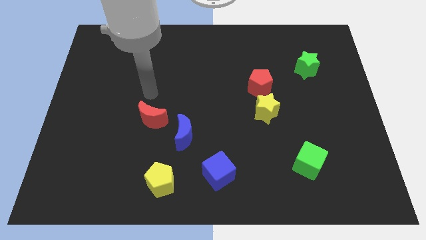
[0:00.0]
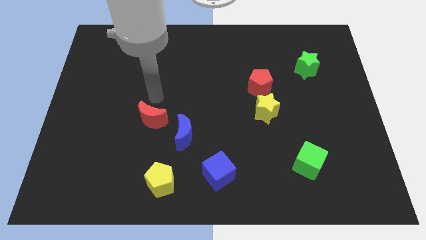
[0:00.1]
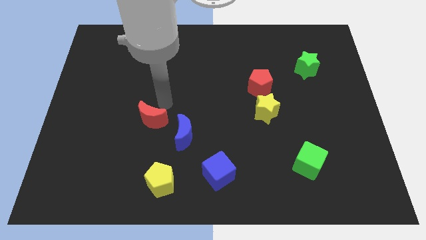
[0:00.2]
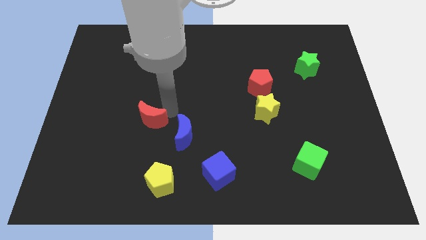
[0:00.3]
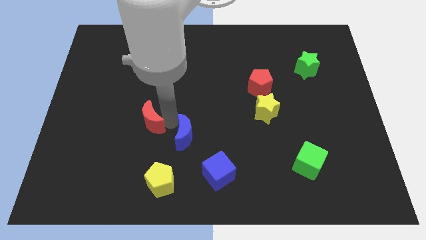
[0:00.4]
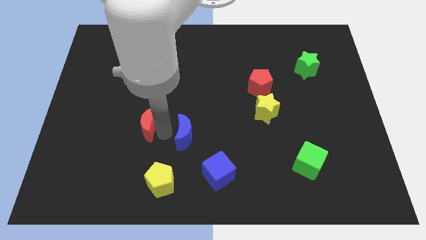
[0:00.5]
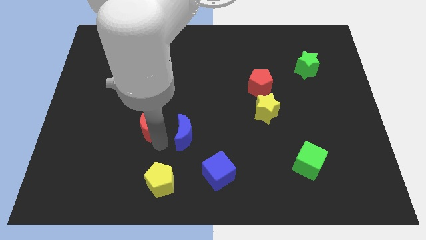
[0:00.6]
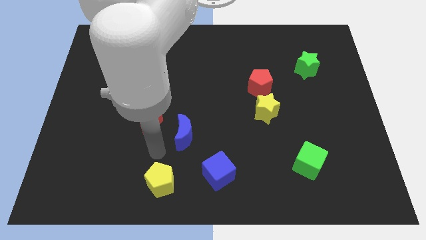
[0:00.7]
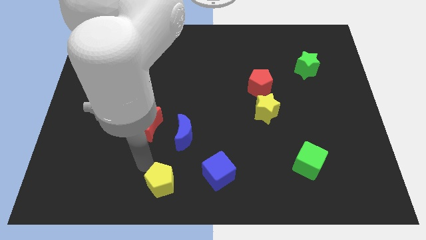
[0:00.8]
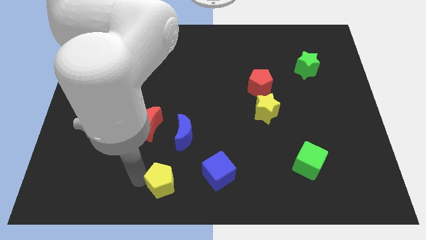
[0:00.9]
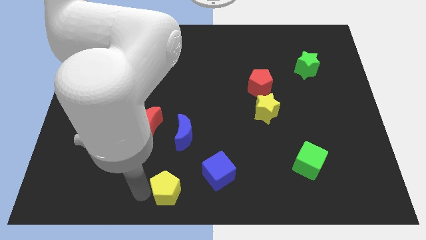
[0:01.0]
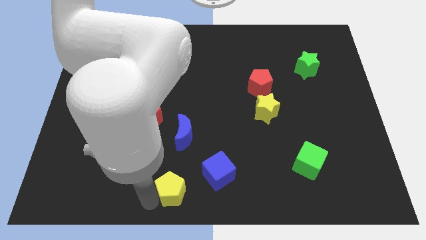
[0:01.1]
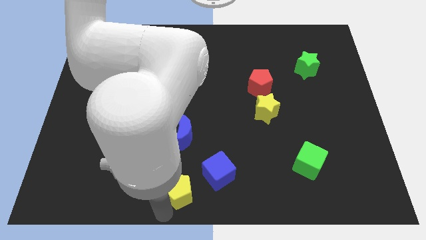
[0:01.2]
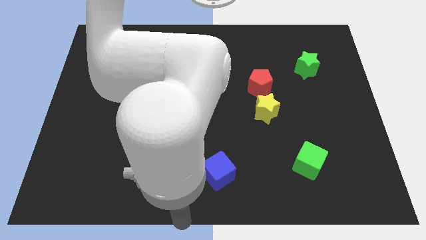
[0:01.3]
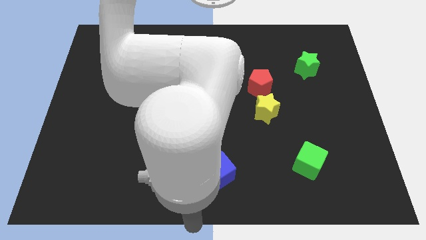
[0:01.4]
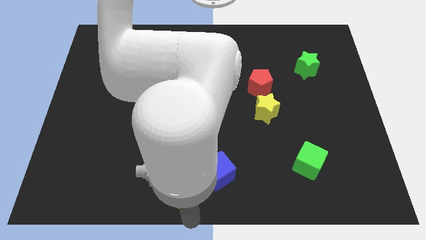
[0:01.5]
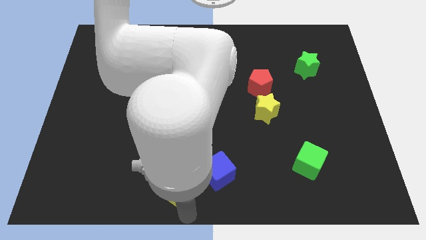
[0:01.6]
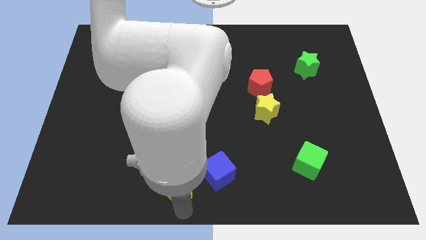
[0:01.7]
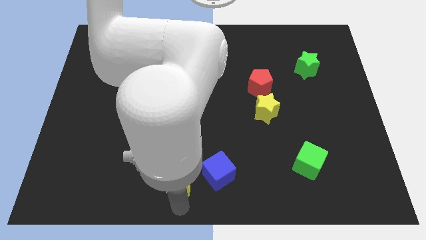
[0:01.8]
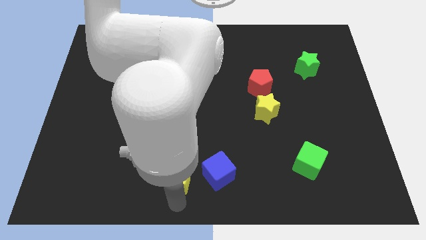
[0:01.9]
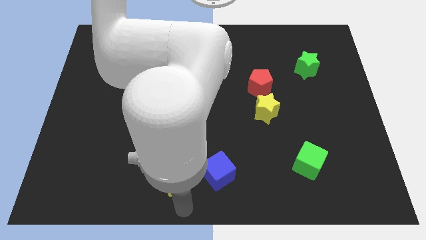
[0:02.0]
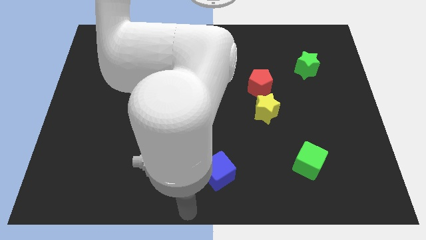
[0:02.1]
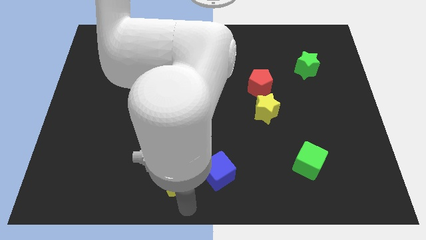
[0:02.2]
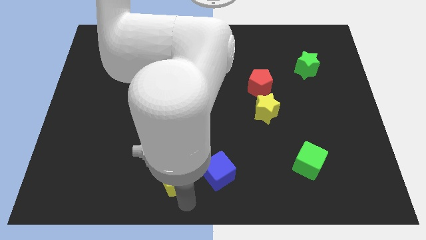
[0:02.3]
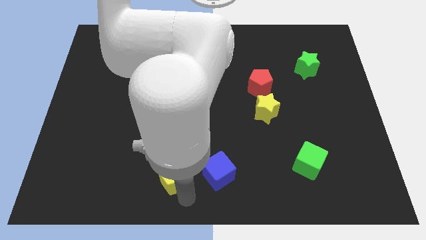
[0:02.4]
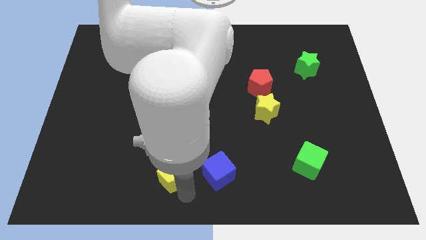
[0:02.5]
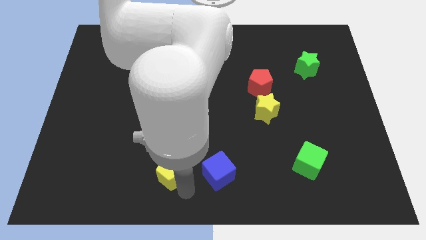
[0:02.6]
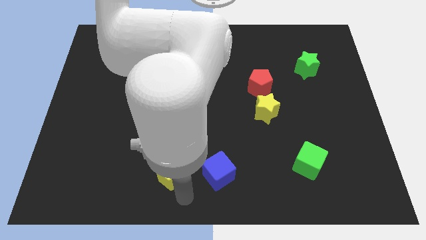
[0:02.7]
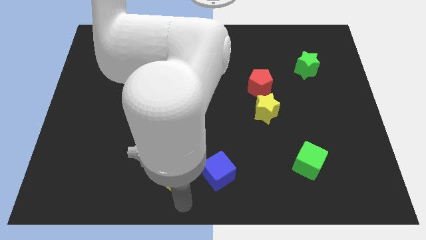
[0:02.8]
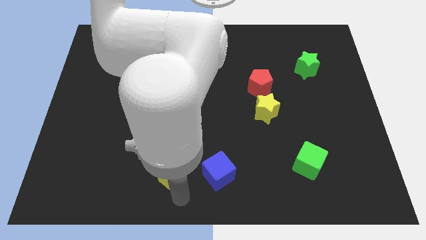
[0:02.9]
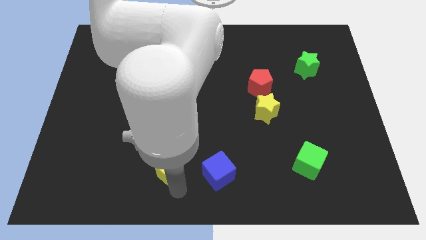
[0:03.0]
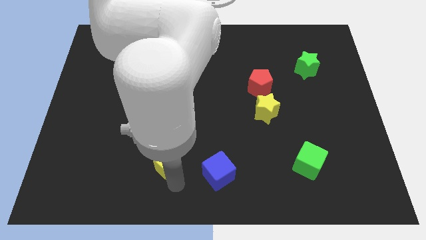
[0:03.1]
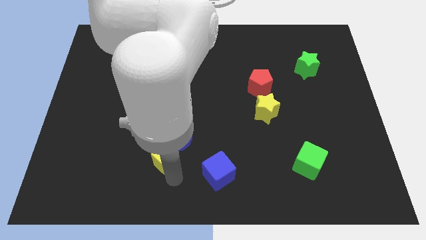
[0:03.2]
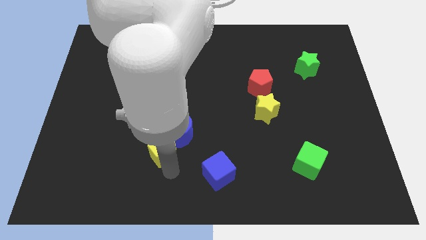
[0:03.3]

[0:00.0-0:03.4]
push the yellow pentagon somewhat upwards

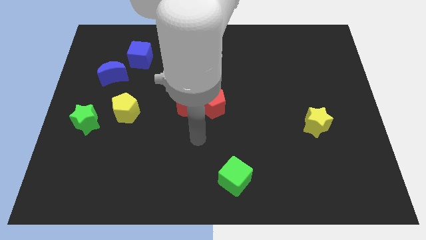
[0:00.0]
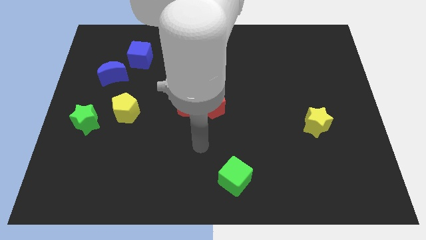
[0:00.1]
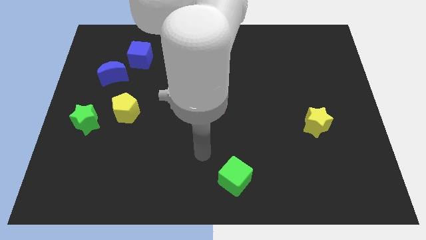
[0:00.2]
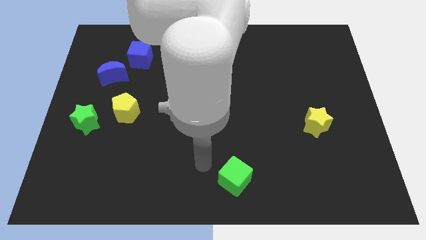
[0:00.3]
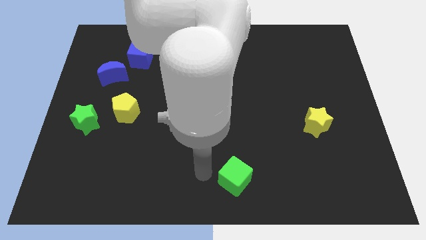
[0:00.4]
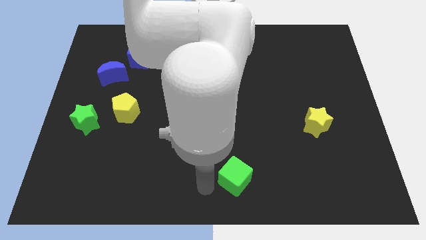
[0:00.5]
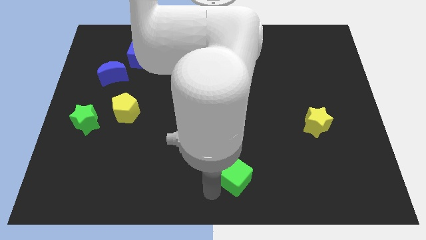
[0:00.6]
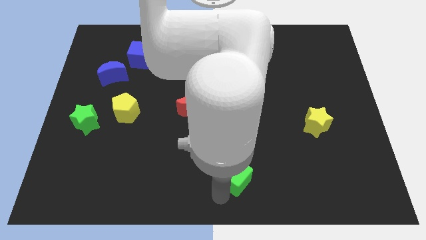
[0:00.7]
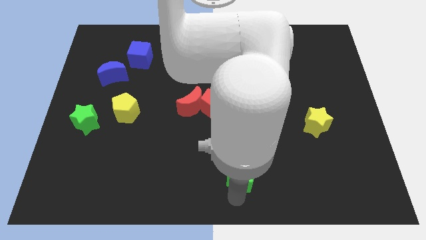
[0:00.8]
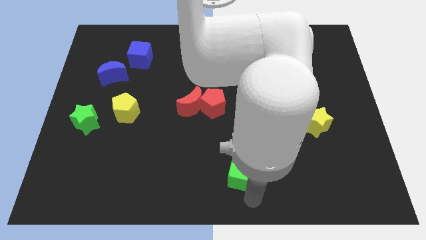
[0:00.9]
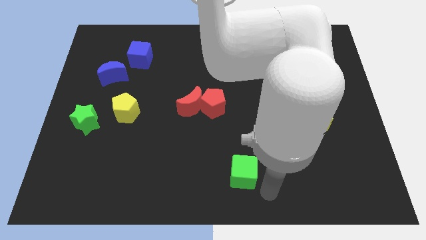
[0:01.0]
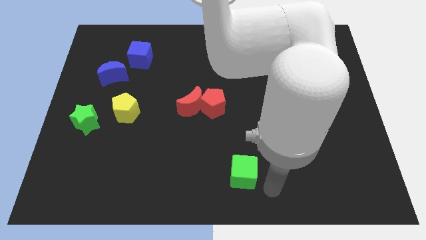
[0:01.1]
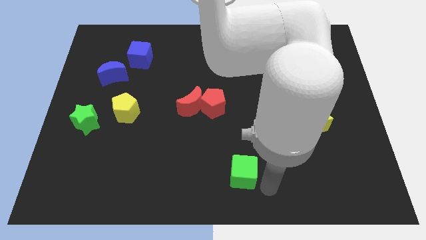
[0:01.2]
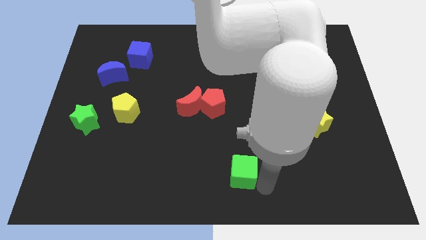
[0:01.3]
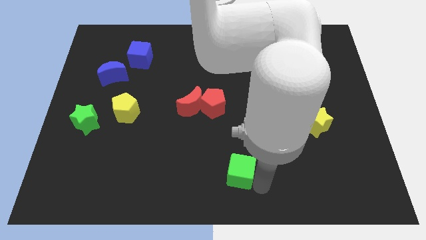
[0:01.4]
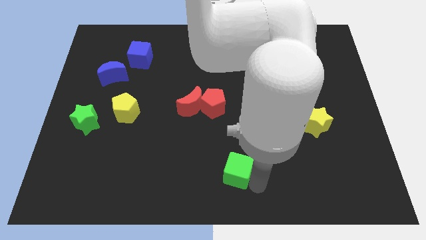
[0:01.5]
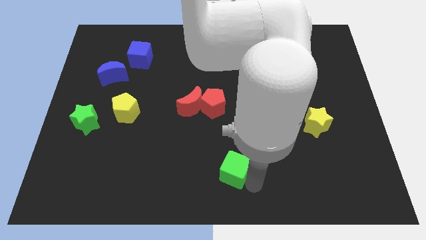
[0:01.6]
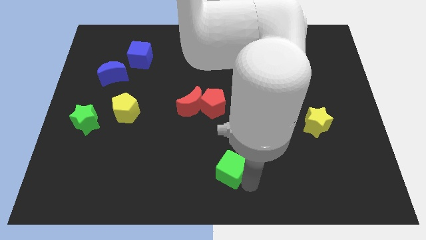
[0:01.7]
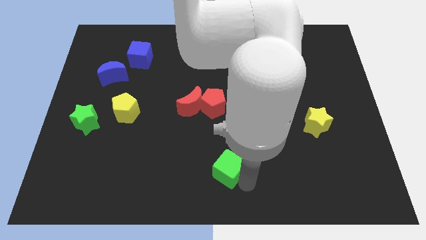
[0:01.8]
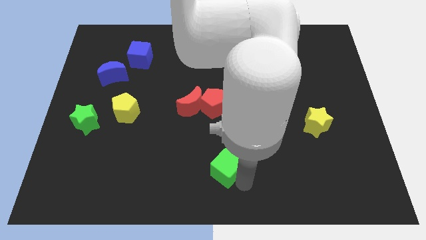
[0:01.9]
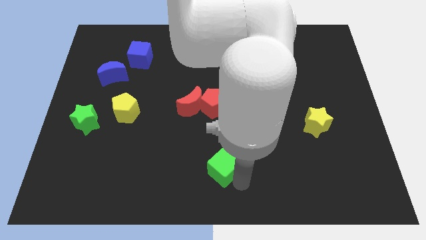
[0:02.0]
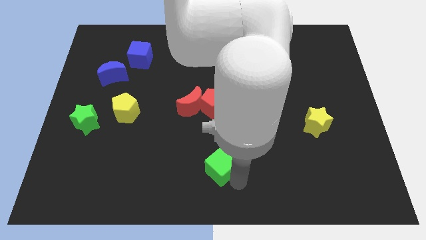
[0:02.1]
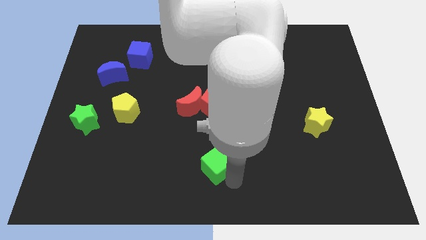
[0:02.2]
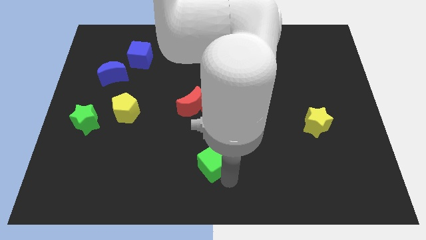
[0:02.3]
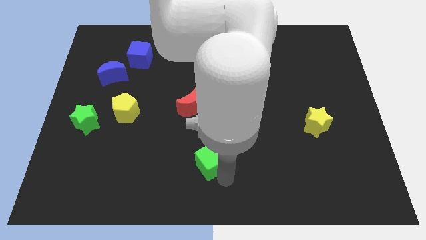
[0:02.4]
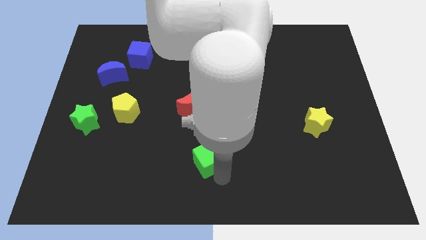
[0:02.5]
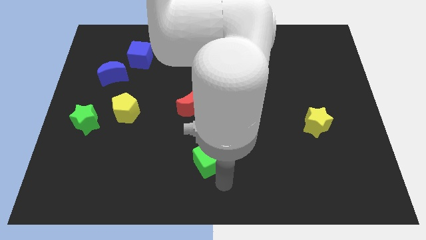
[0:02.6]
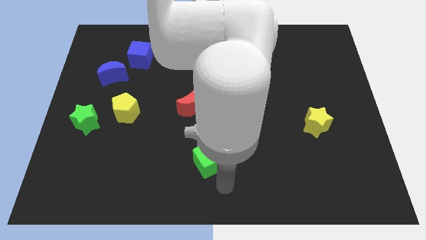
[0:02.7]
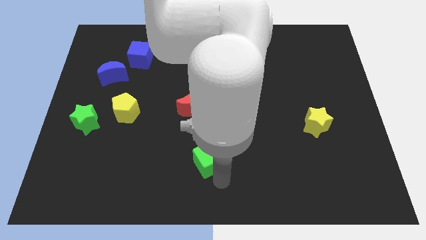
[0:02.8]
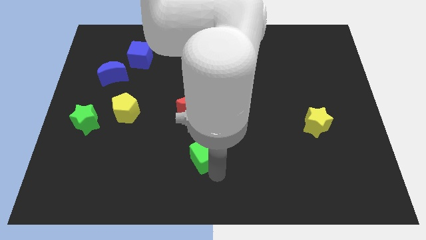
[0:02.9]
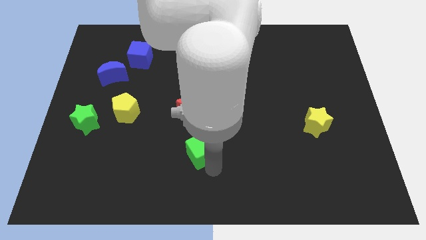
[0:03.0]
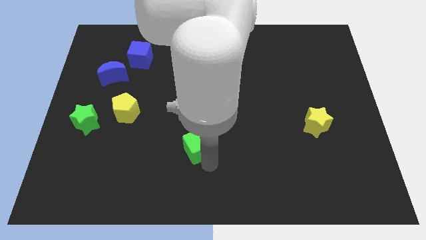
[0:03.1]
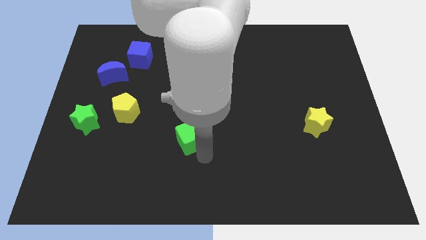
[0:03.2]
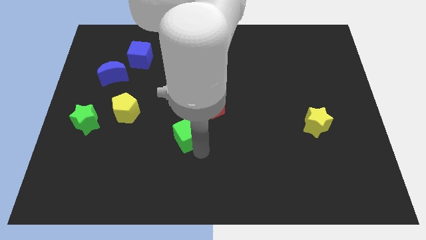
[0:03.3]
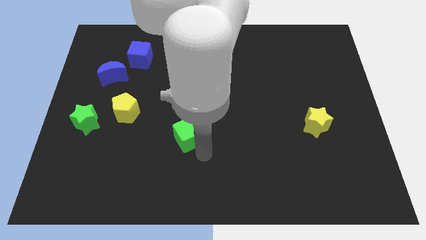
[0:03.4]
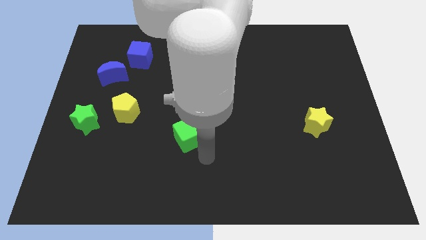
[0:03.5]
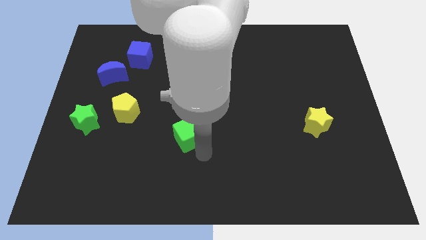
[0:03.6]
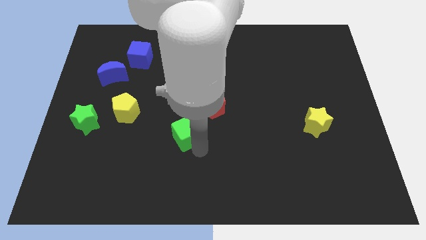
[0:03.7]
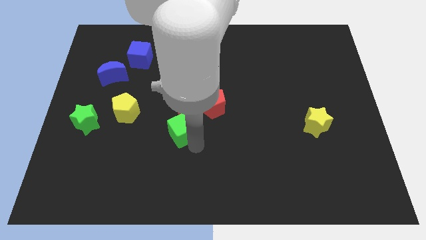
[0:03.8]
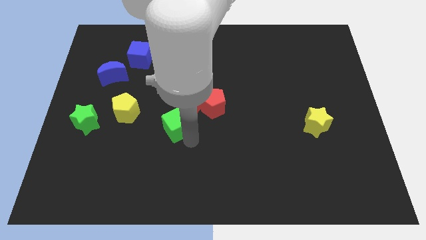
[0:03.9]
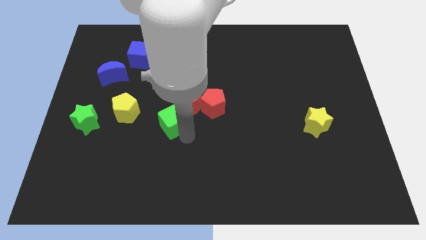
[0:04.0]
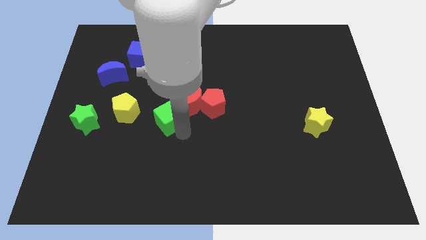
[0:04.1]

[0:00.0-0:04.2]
push the green cube upwards and to the left

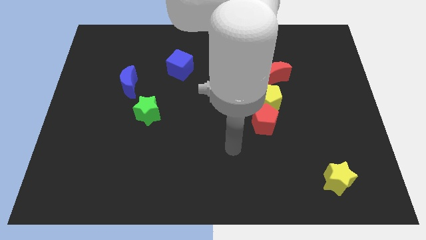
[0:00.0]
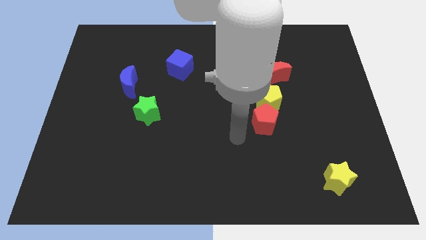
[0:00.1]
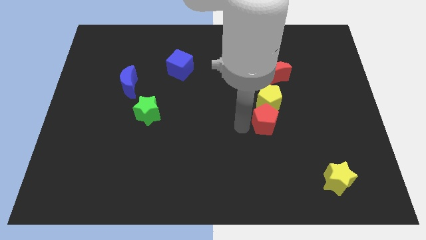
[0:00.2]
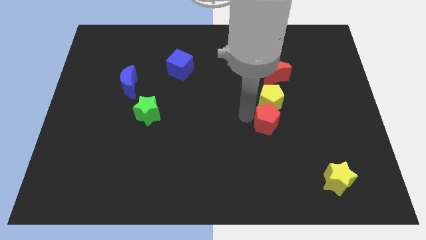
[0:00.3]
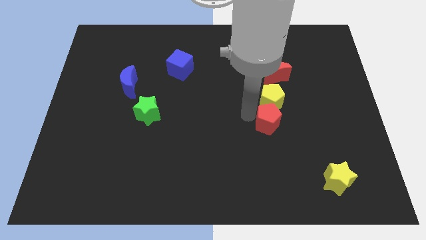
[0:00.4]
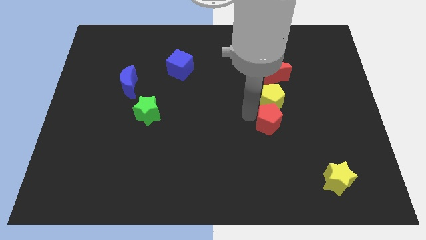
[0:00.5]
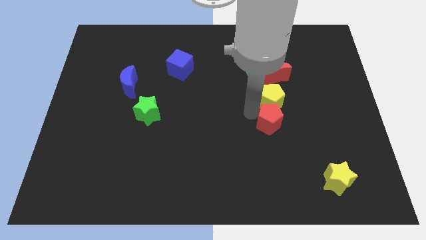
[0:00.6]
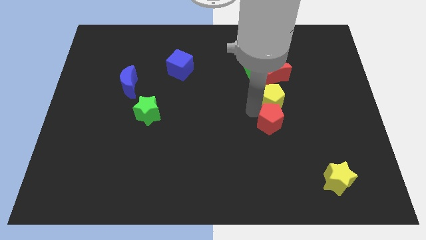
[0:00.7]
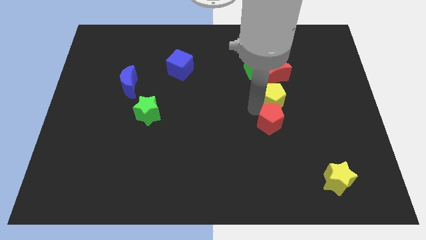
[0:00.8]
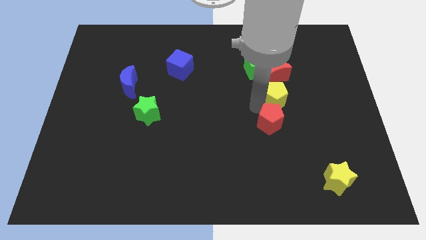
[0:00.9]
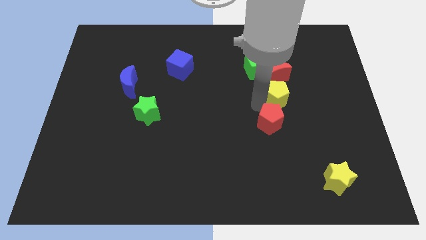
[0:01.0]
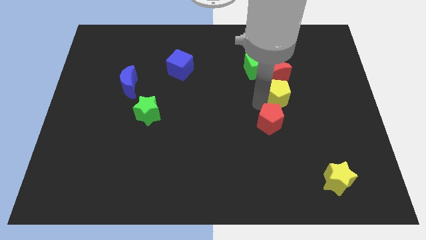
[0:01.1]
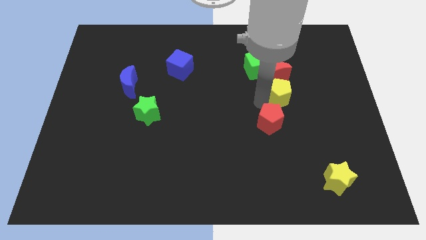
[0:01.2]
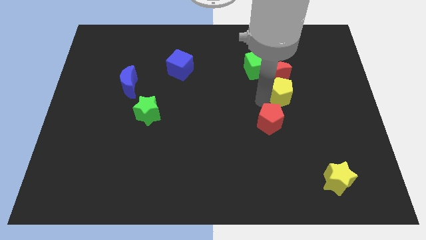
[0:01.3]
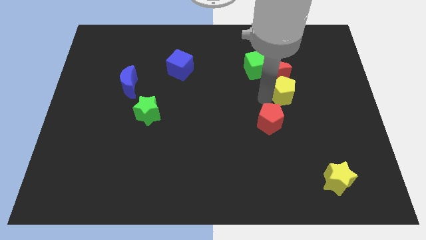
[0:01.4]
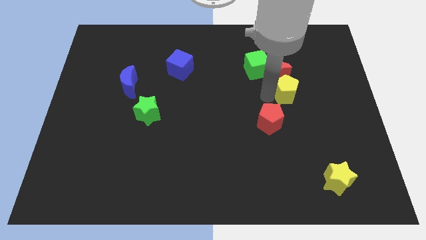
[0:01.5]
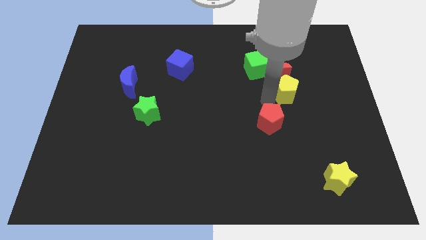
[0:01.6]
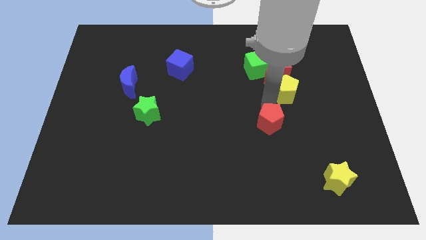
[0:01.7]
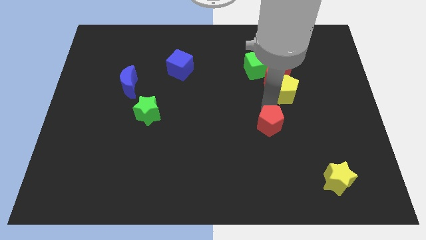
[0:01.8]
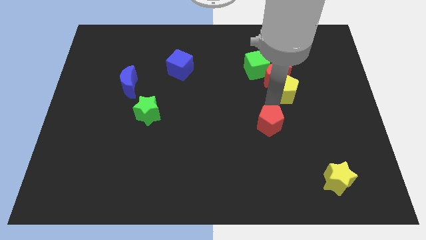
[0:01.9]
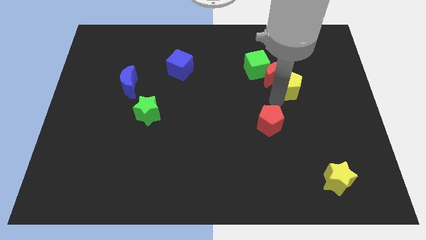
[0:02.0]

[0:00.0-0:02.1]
slide the yellow pentagon somewhat diagonally up and to the right
